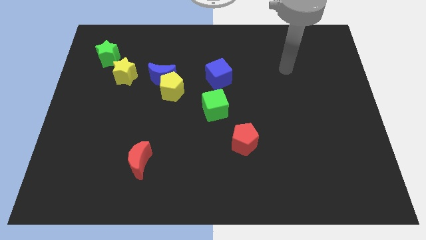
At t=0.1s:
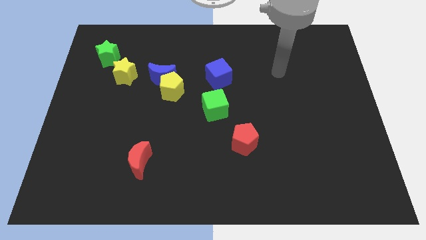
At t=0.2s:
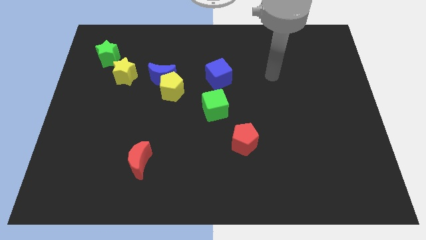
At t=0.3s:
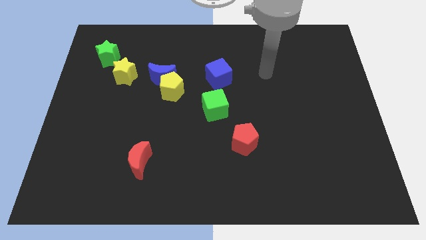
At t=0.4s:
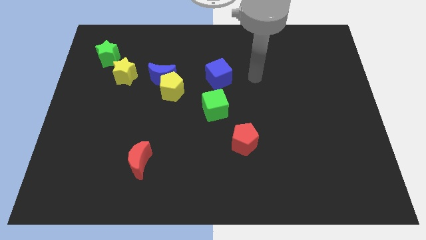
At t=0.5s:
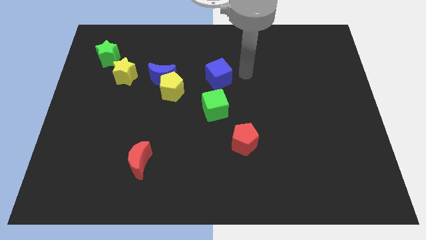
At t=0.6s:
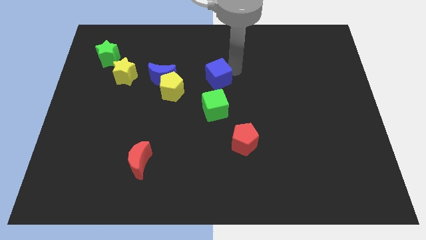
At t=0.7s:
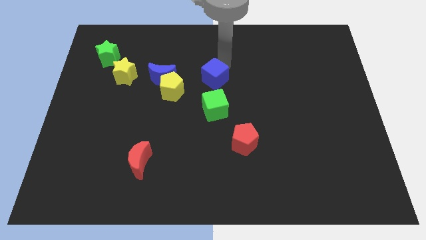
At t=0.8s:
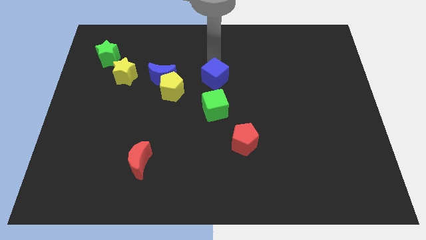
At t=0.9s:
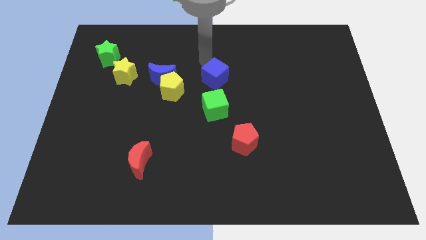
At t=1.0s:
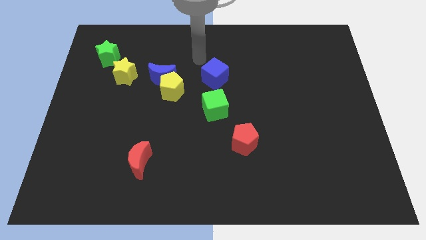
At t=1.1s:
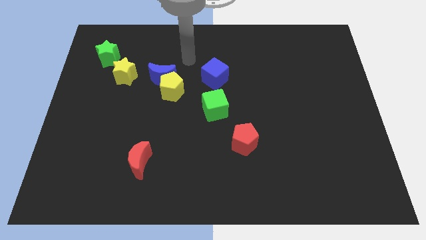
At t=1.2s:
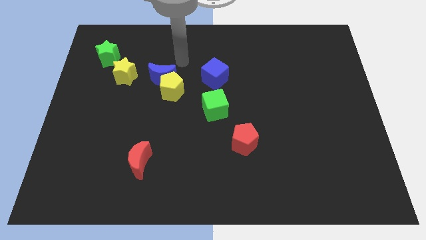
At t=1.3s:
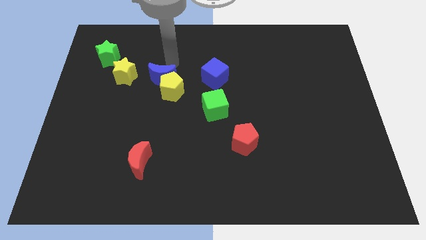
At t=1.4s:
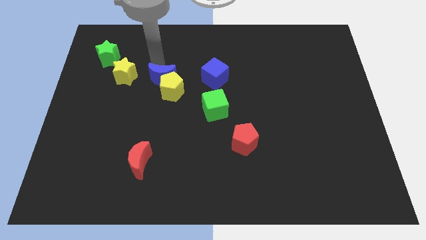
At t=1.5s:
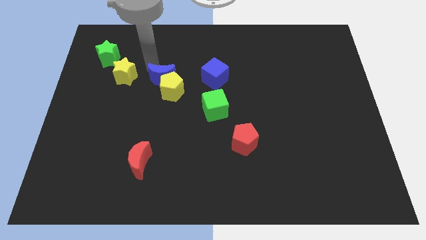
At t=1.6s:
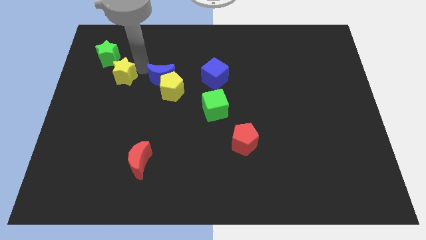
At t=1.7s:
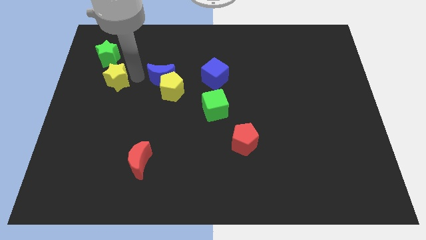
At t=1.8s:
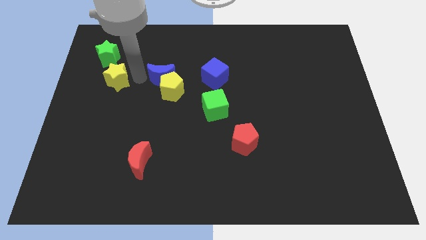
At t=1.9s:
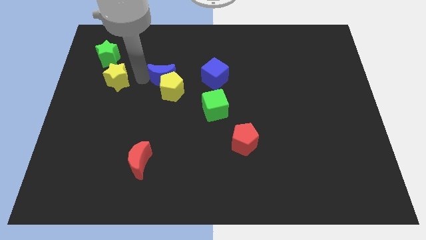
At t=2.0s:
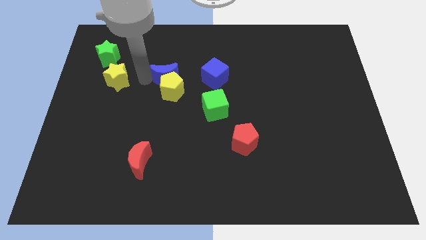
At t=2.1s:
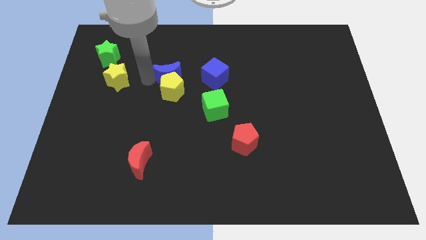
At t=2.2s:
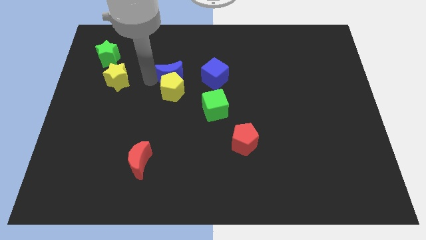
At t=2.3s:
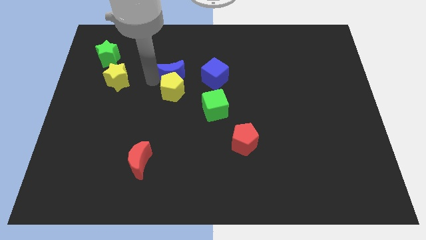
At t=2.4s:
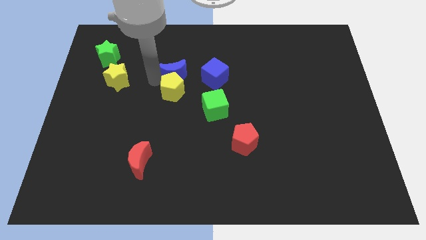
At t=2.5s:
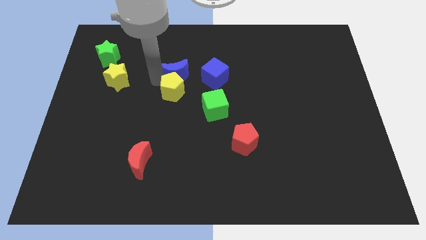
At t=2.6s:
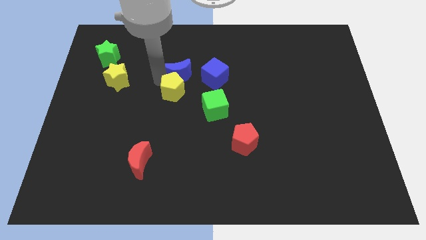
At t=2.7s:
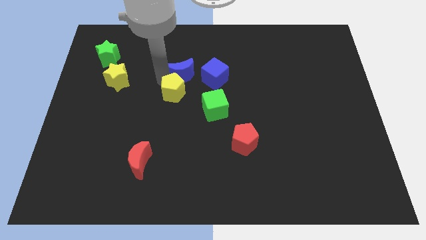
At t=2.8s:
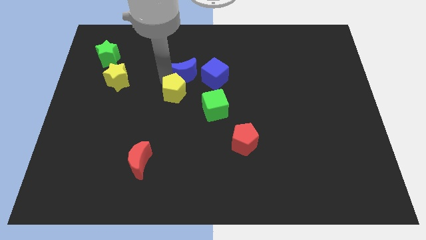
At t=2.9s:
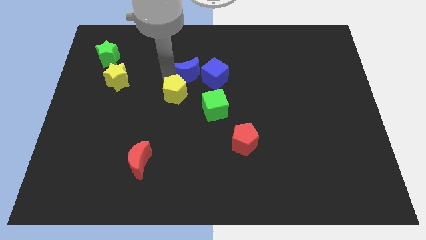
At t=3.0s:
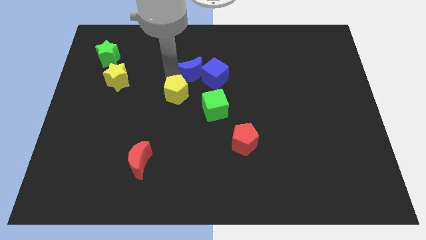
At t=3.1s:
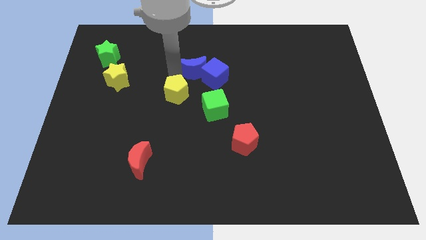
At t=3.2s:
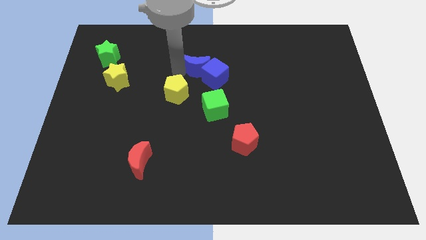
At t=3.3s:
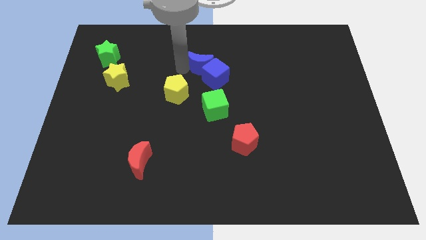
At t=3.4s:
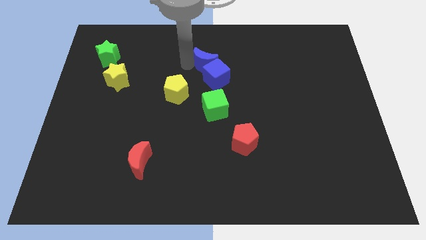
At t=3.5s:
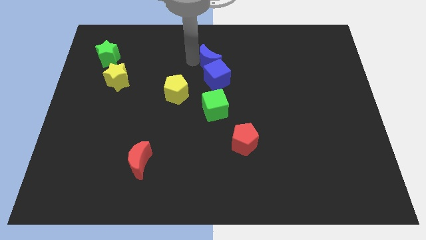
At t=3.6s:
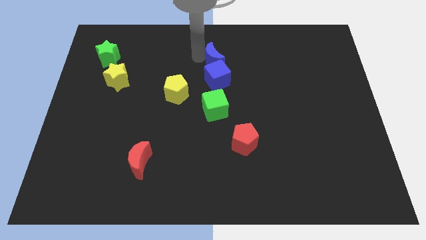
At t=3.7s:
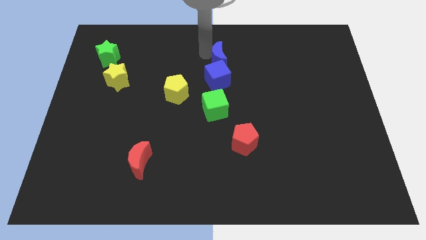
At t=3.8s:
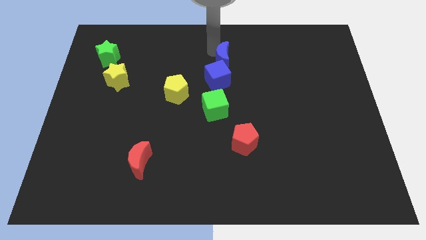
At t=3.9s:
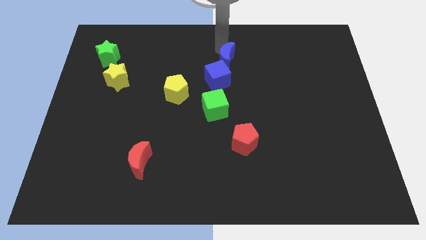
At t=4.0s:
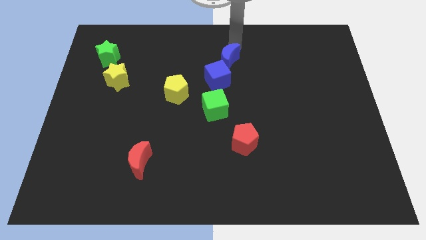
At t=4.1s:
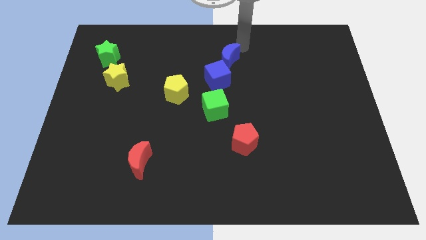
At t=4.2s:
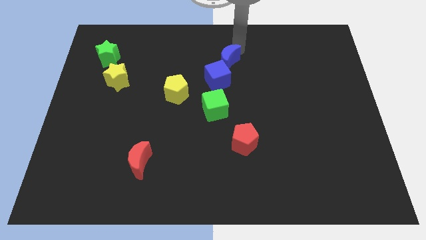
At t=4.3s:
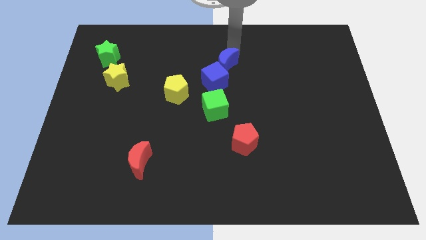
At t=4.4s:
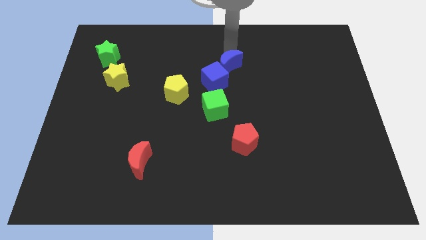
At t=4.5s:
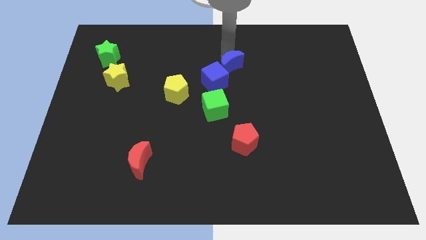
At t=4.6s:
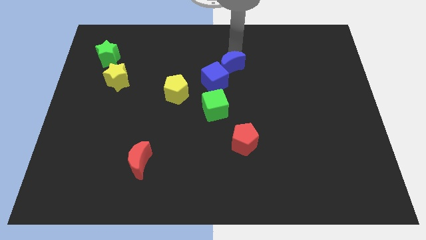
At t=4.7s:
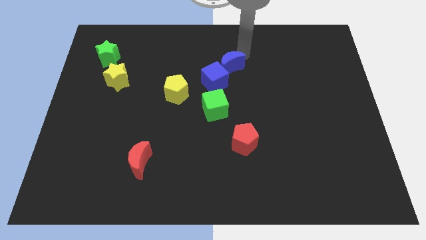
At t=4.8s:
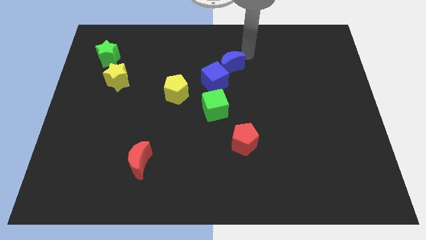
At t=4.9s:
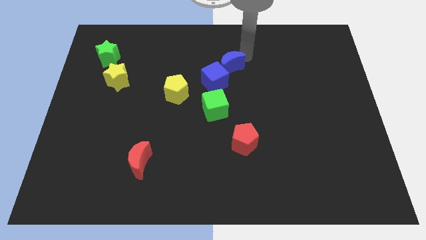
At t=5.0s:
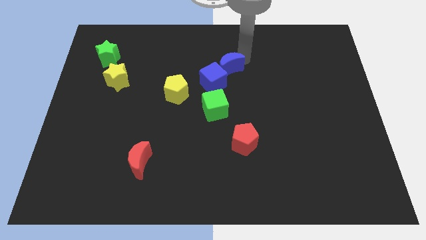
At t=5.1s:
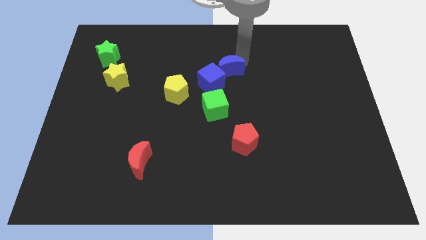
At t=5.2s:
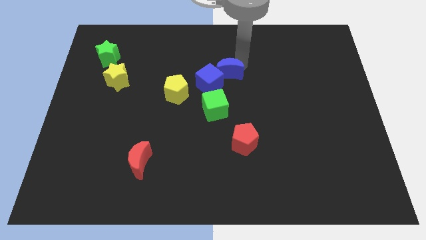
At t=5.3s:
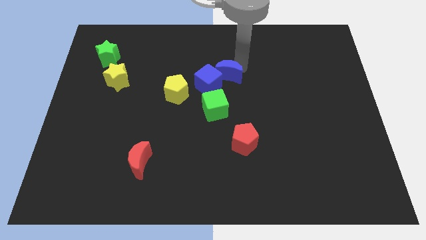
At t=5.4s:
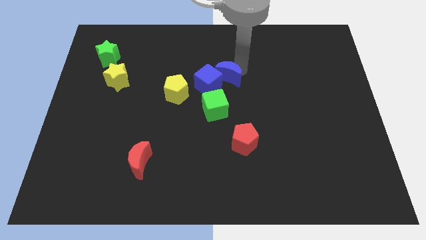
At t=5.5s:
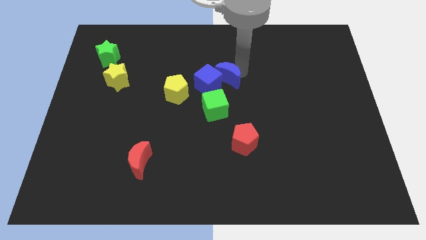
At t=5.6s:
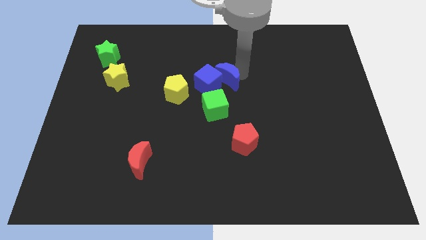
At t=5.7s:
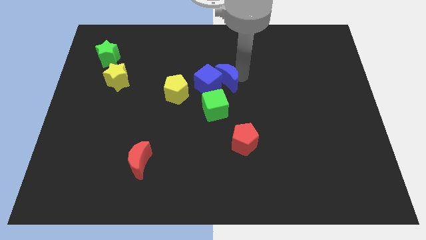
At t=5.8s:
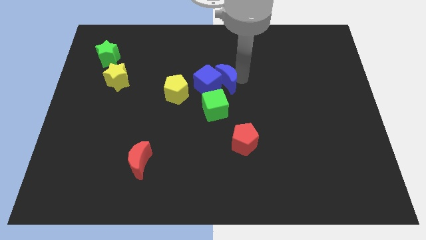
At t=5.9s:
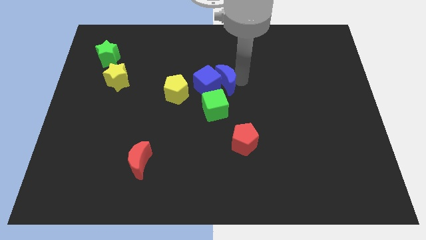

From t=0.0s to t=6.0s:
move the blue moon downwards and to the right diagonally slightly

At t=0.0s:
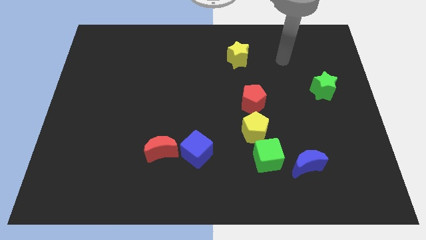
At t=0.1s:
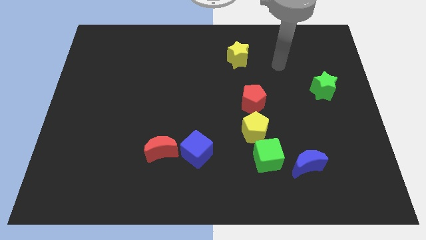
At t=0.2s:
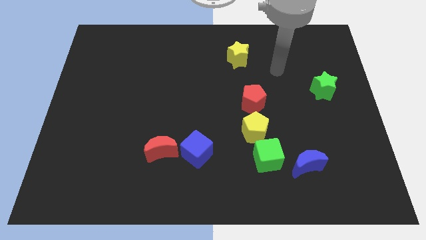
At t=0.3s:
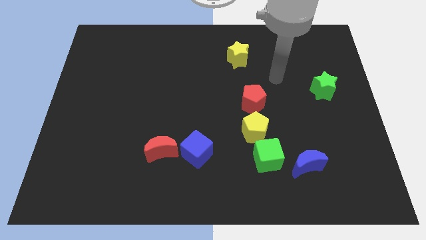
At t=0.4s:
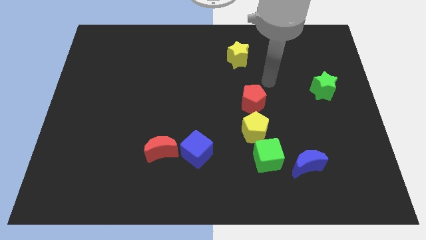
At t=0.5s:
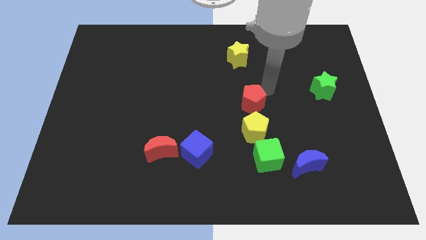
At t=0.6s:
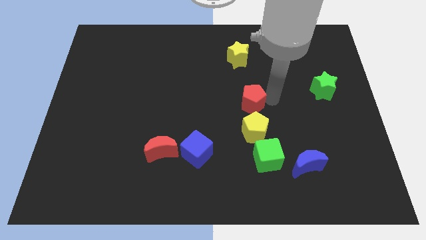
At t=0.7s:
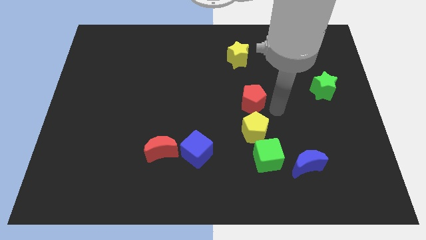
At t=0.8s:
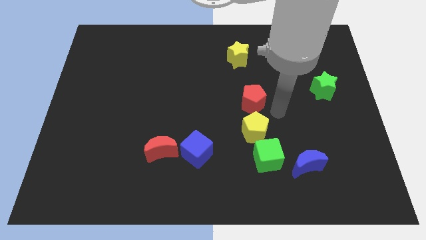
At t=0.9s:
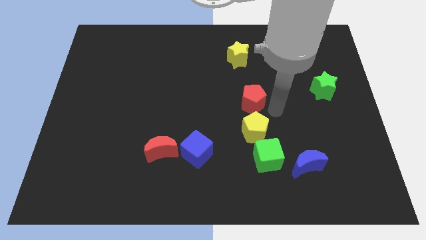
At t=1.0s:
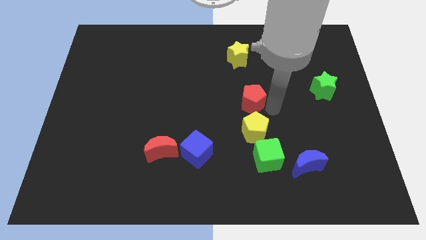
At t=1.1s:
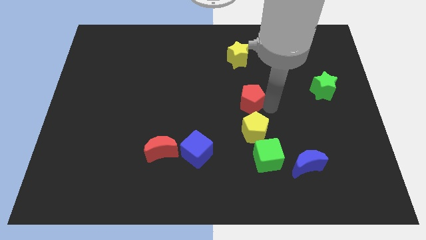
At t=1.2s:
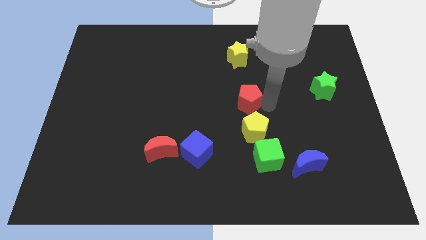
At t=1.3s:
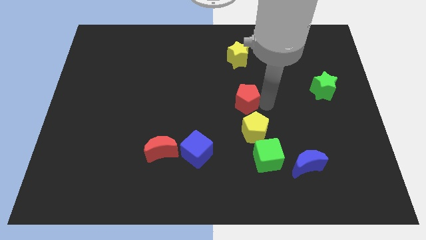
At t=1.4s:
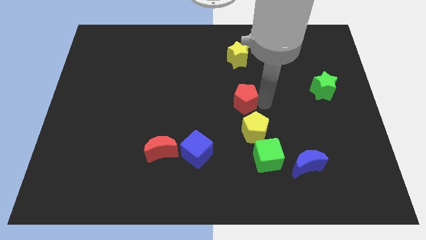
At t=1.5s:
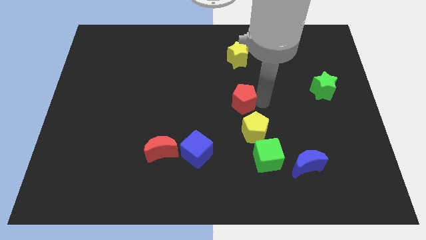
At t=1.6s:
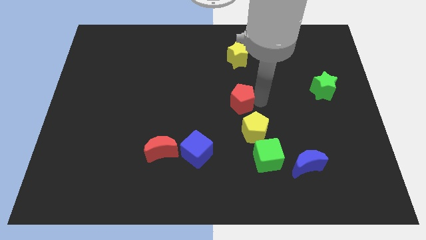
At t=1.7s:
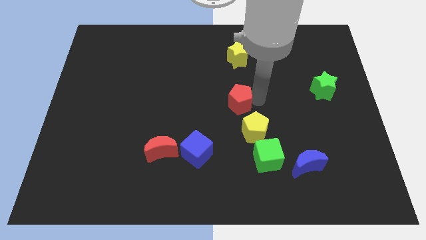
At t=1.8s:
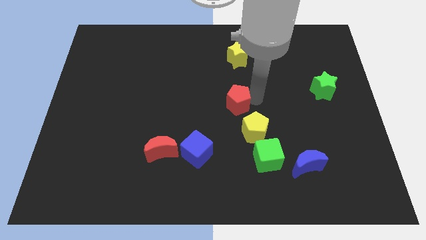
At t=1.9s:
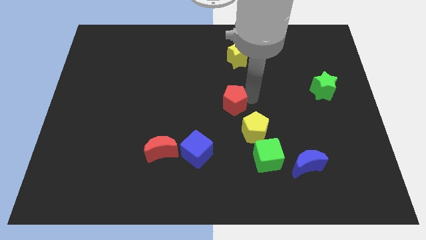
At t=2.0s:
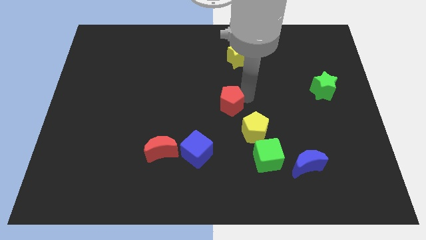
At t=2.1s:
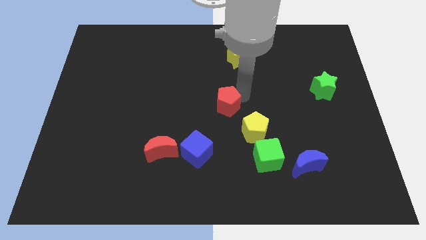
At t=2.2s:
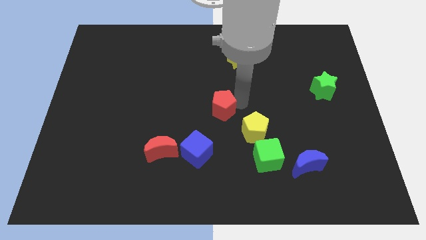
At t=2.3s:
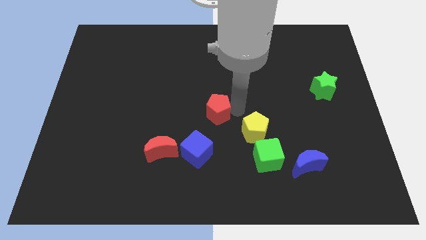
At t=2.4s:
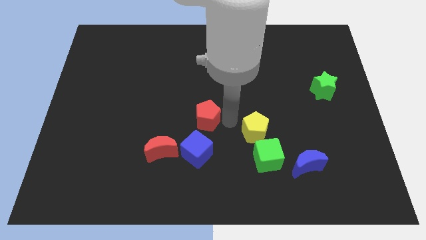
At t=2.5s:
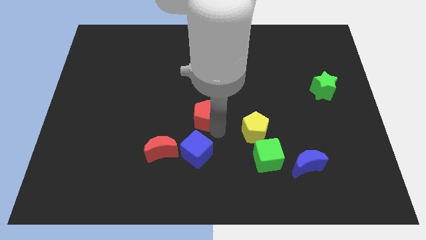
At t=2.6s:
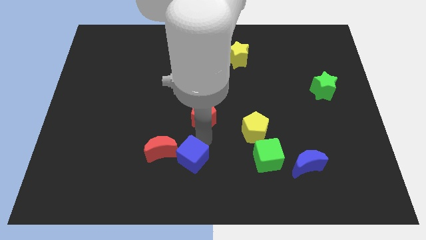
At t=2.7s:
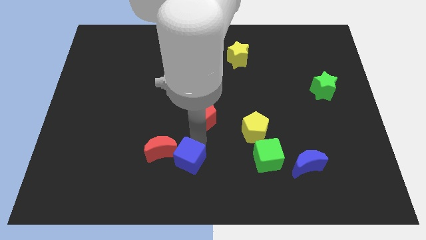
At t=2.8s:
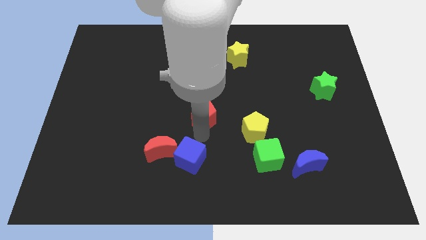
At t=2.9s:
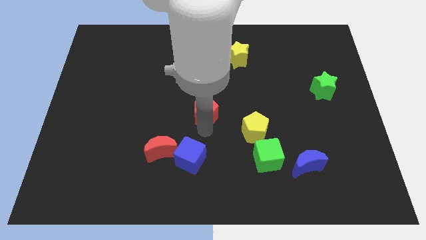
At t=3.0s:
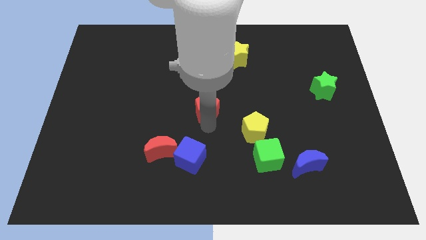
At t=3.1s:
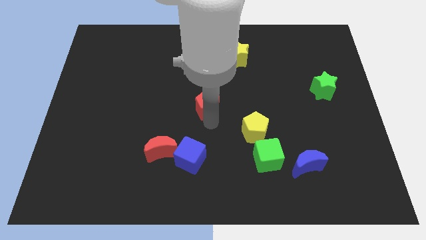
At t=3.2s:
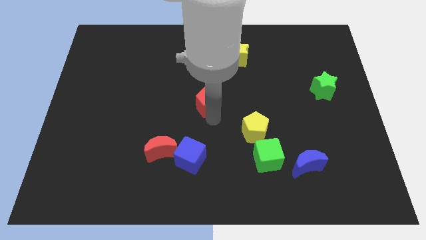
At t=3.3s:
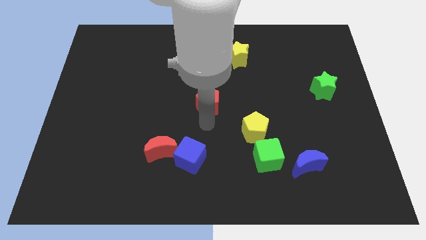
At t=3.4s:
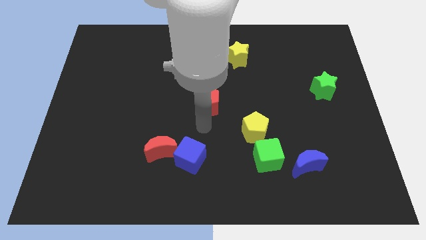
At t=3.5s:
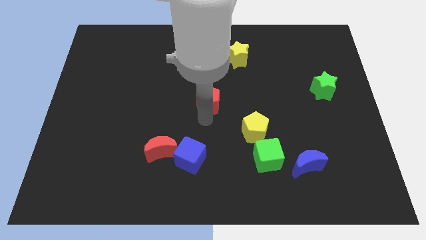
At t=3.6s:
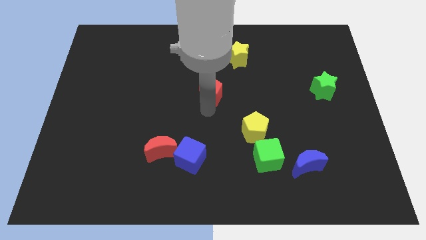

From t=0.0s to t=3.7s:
push the red pentagon diagonally upwards and left somewhat
